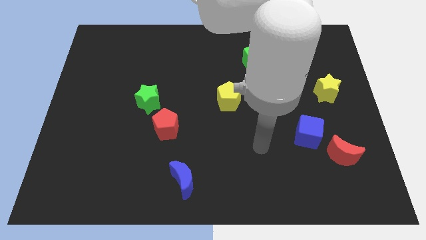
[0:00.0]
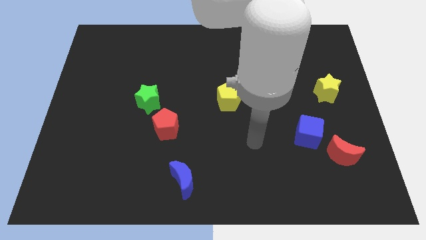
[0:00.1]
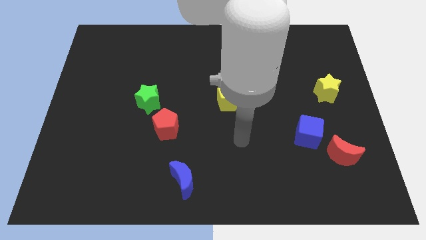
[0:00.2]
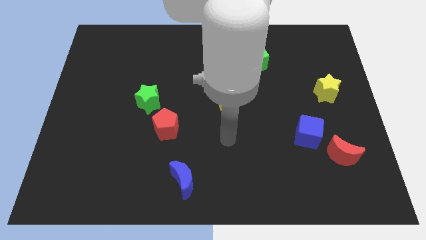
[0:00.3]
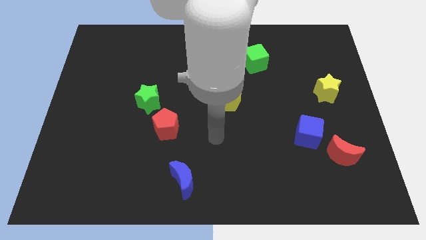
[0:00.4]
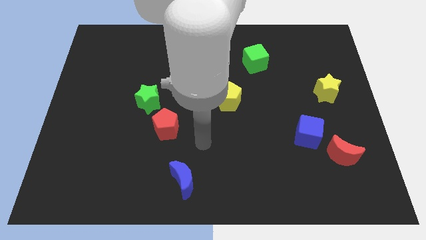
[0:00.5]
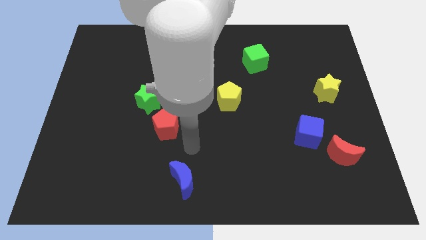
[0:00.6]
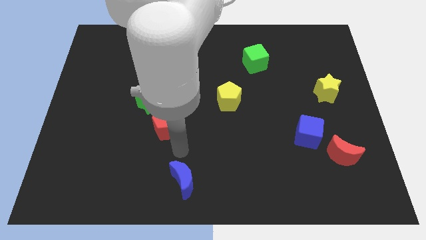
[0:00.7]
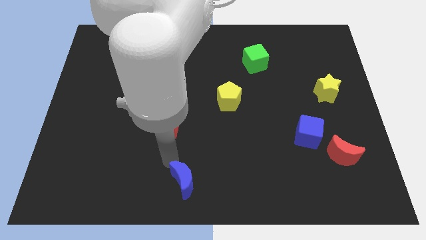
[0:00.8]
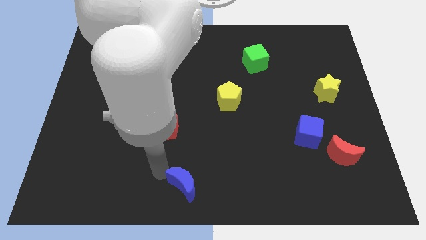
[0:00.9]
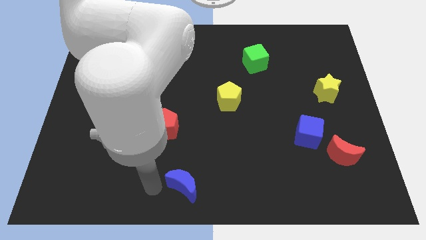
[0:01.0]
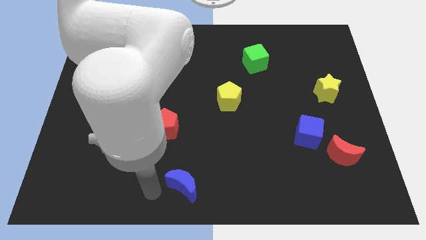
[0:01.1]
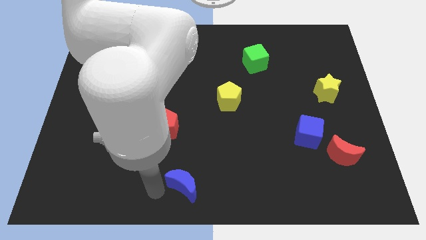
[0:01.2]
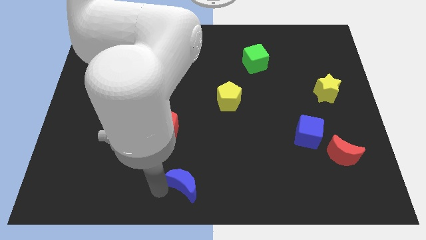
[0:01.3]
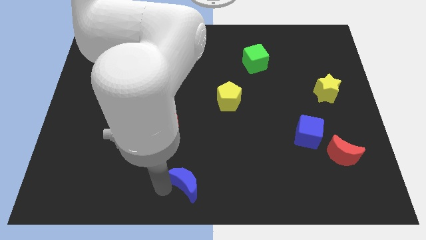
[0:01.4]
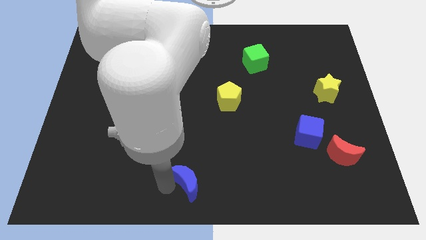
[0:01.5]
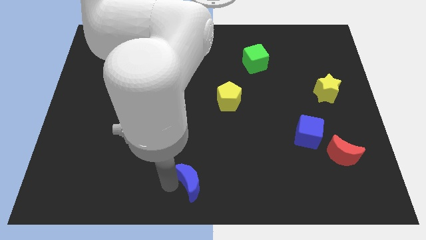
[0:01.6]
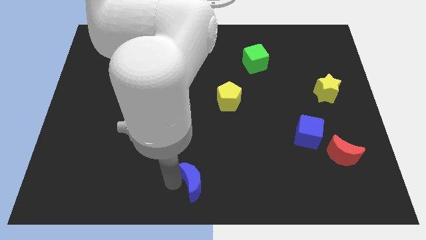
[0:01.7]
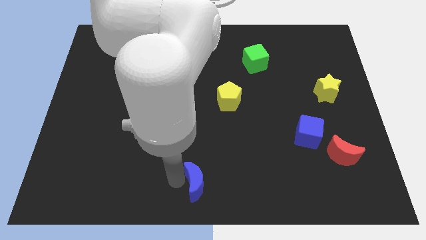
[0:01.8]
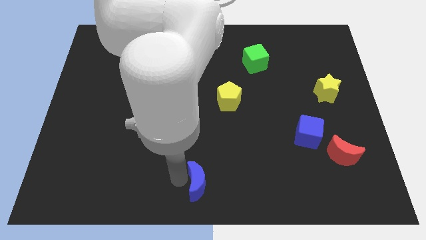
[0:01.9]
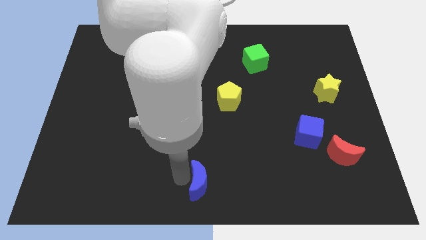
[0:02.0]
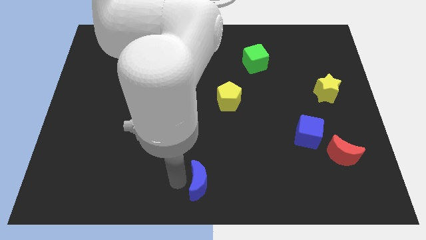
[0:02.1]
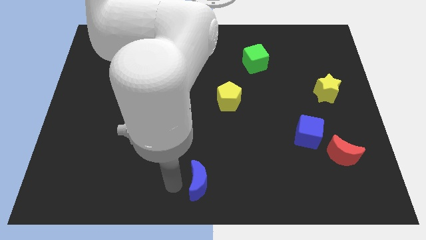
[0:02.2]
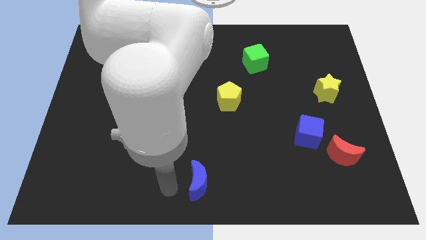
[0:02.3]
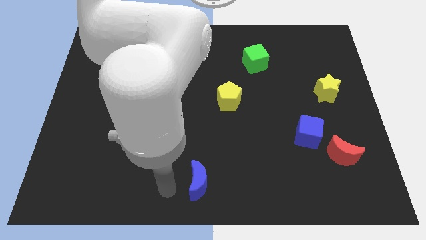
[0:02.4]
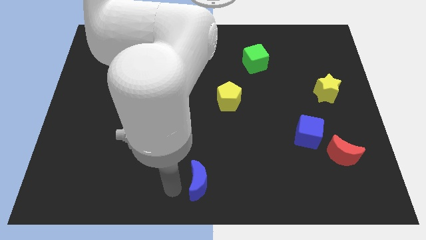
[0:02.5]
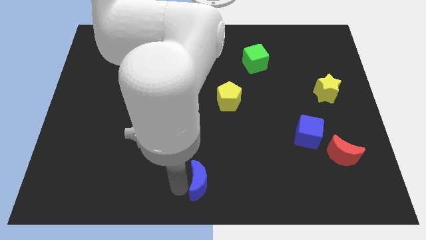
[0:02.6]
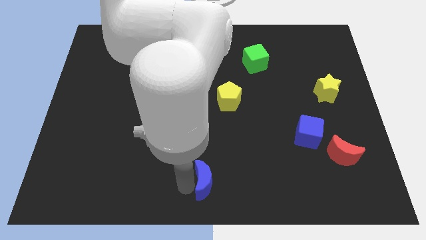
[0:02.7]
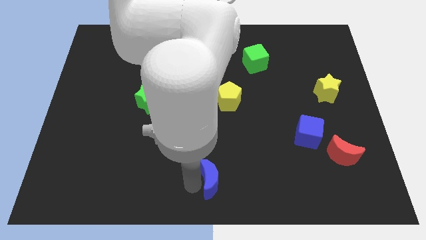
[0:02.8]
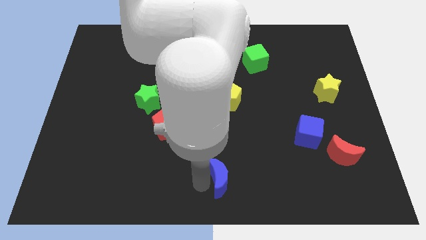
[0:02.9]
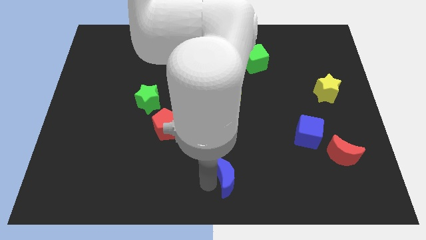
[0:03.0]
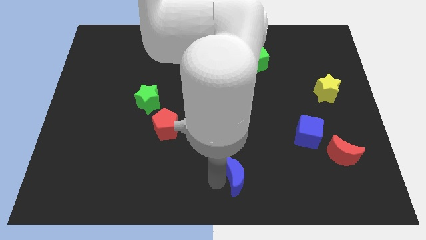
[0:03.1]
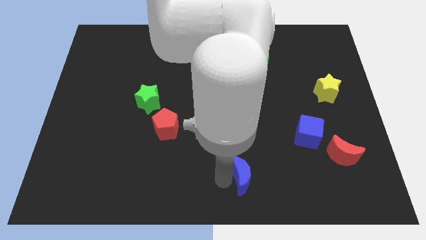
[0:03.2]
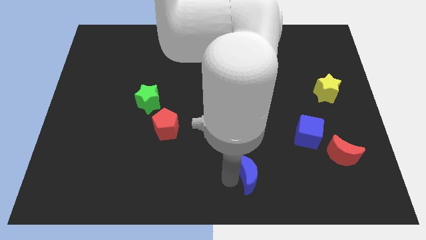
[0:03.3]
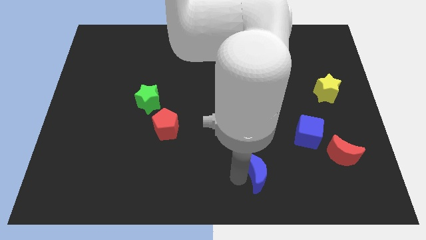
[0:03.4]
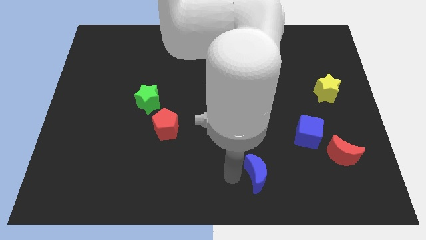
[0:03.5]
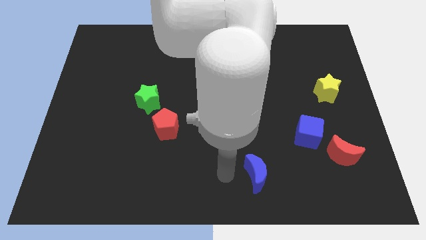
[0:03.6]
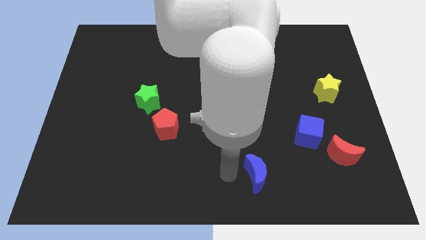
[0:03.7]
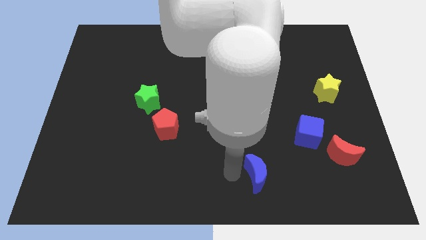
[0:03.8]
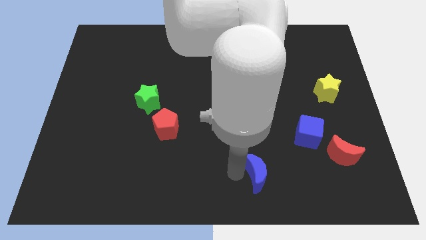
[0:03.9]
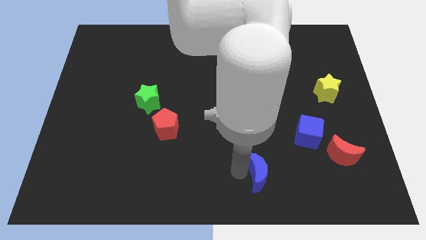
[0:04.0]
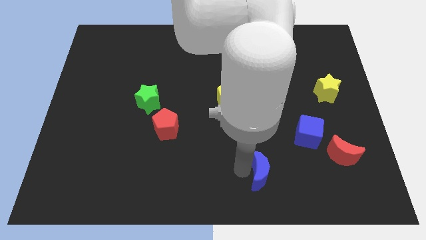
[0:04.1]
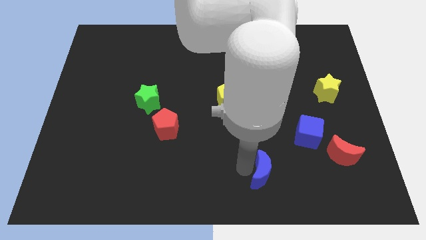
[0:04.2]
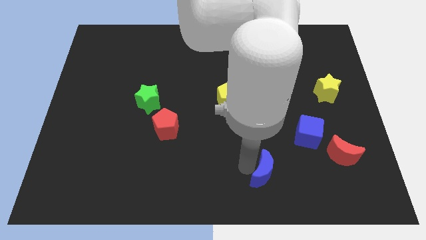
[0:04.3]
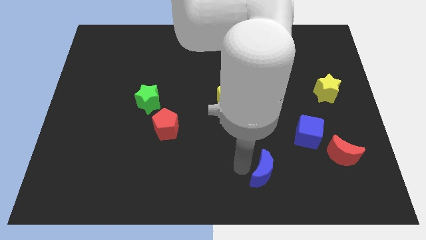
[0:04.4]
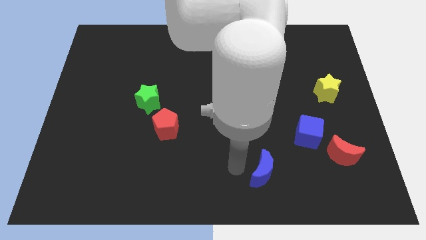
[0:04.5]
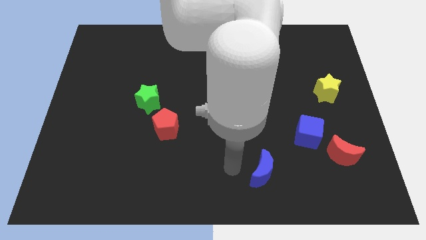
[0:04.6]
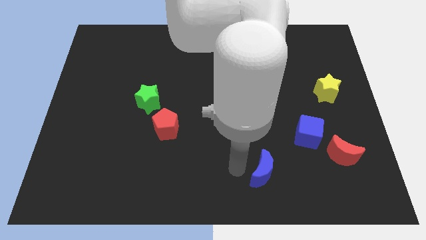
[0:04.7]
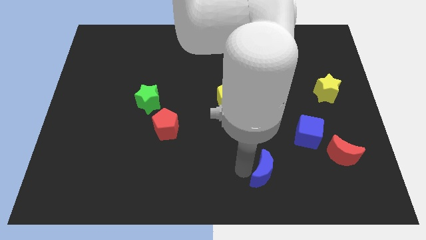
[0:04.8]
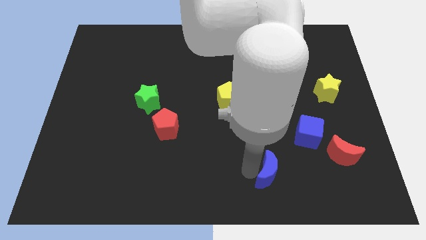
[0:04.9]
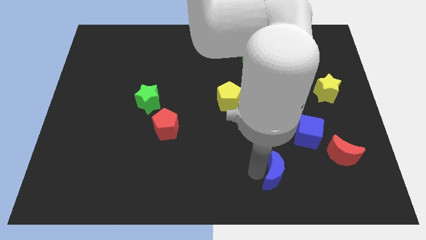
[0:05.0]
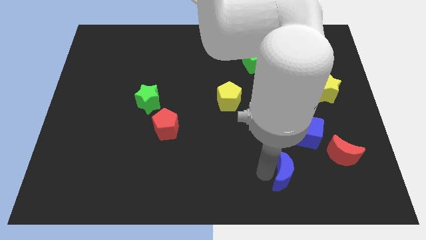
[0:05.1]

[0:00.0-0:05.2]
slide the blue moon to the right

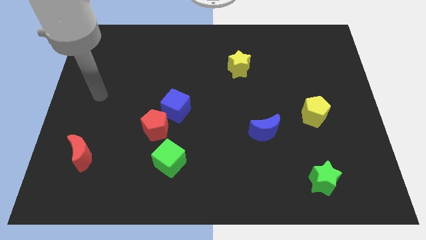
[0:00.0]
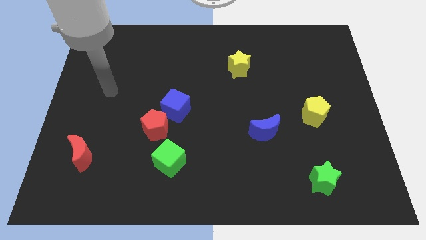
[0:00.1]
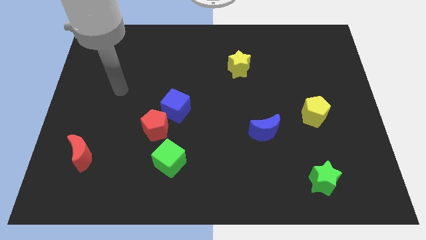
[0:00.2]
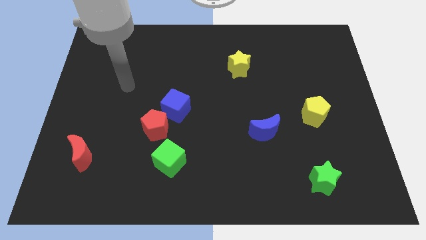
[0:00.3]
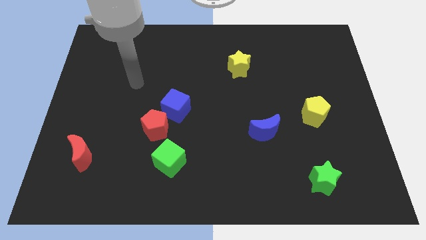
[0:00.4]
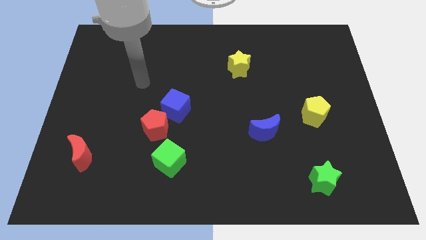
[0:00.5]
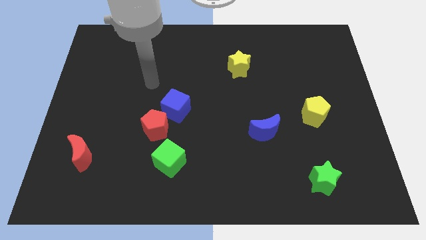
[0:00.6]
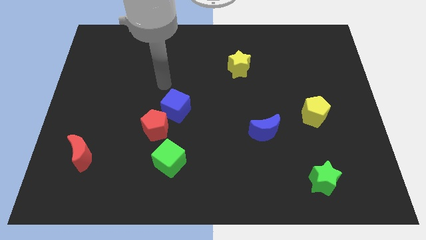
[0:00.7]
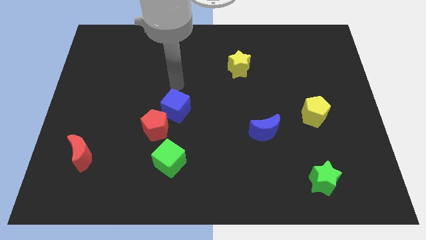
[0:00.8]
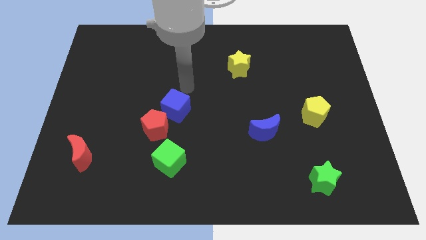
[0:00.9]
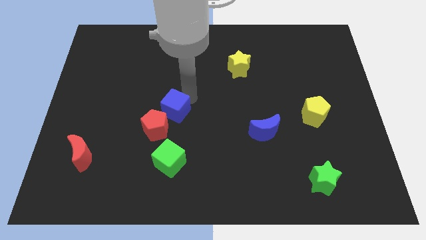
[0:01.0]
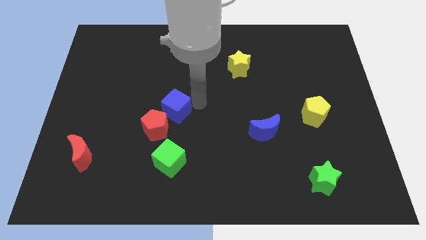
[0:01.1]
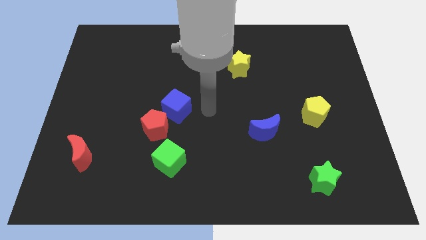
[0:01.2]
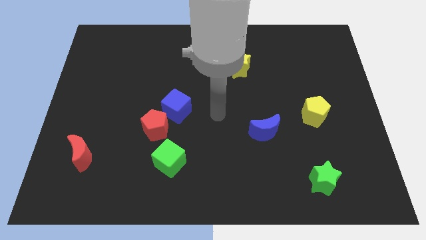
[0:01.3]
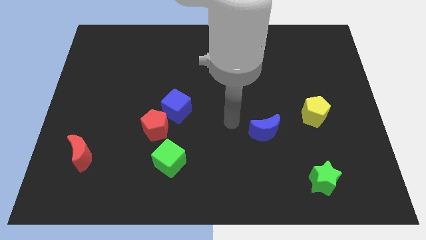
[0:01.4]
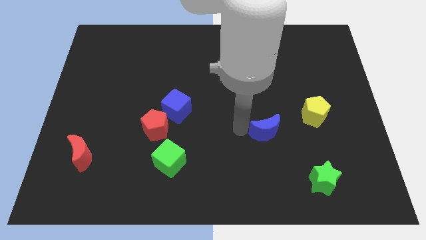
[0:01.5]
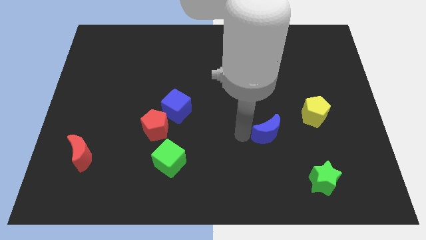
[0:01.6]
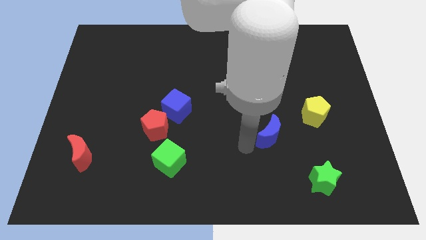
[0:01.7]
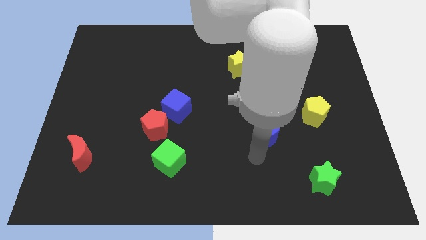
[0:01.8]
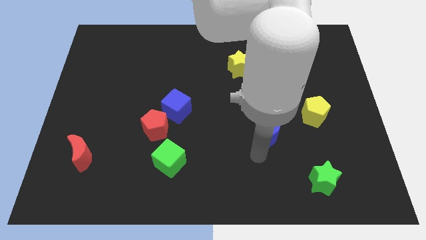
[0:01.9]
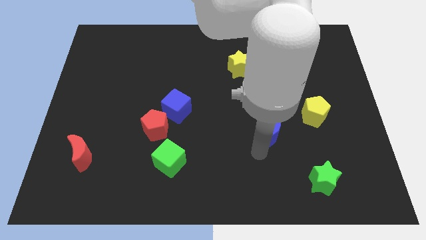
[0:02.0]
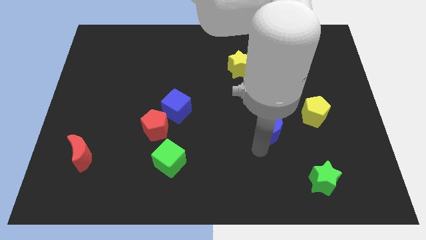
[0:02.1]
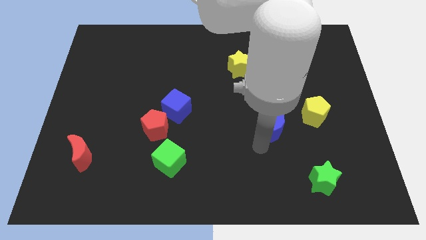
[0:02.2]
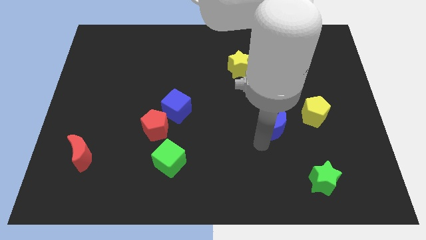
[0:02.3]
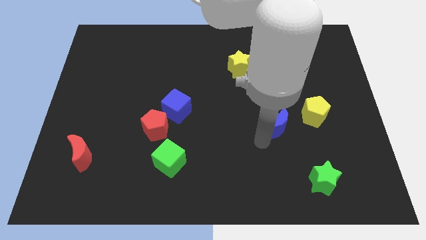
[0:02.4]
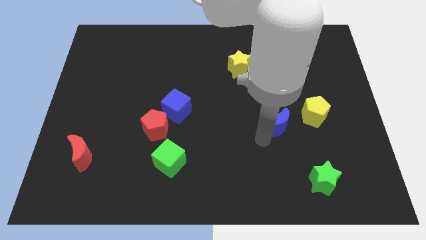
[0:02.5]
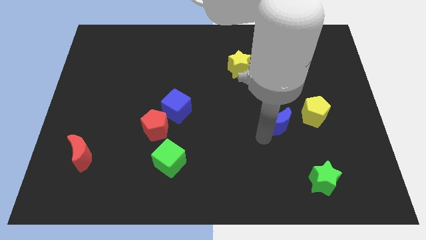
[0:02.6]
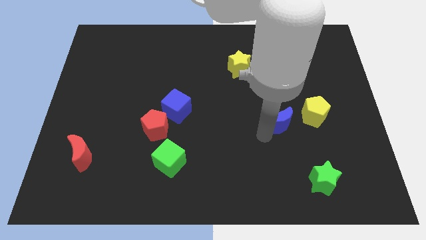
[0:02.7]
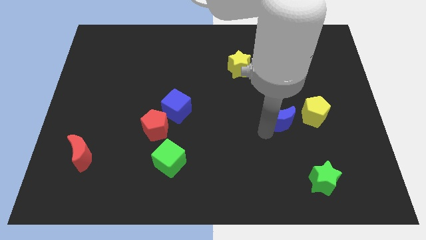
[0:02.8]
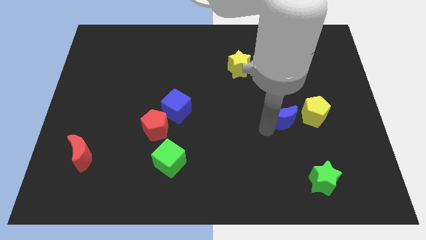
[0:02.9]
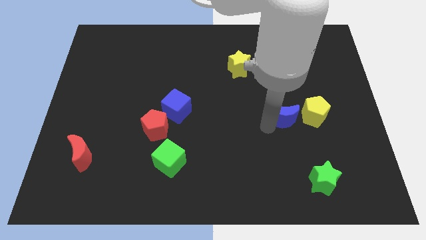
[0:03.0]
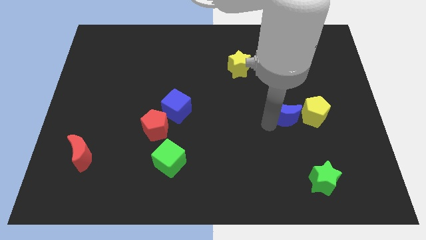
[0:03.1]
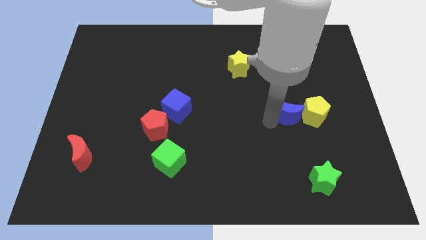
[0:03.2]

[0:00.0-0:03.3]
push the blue moon upwards and then right a bit
